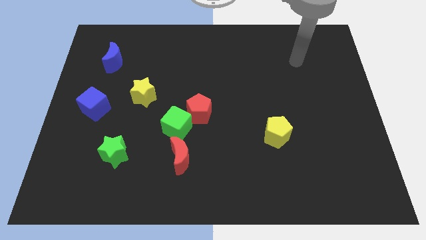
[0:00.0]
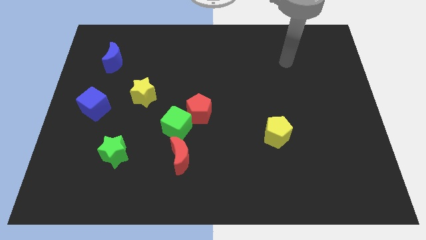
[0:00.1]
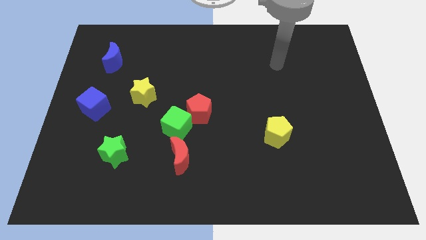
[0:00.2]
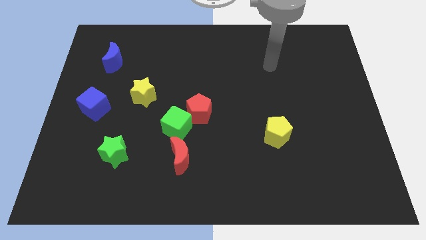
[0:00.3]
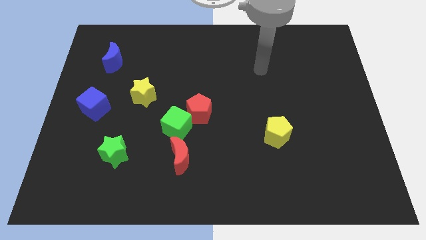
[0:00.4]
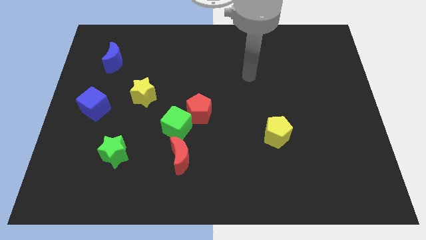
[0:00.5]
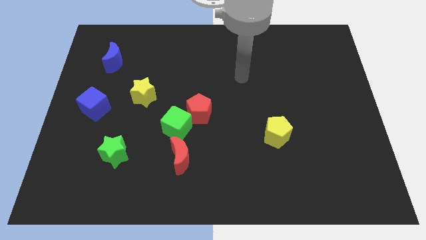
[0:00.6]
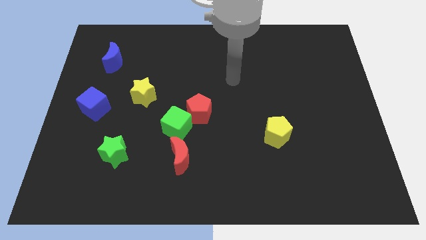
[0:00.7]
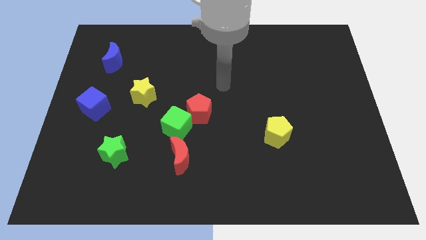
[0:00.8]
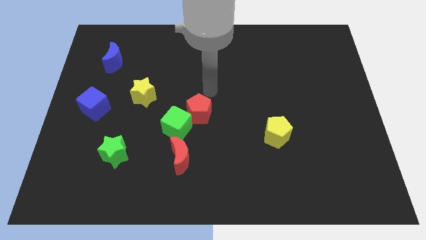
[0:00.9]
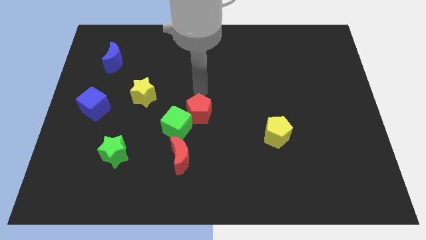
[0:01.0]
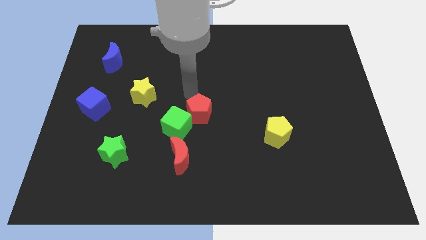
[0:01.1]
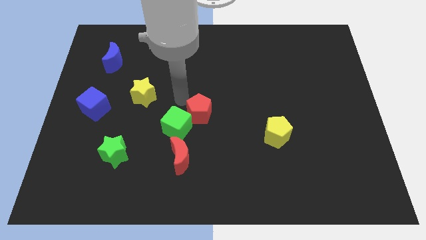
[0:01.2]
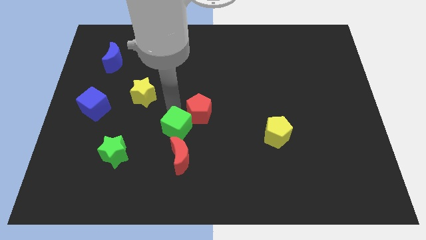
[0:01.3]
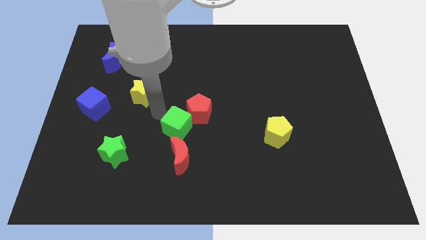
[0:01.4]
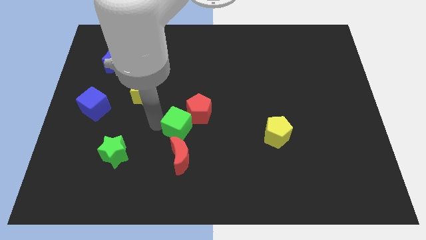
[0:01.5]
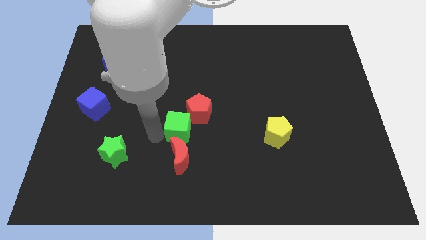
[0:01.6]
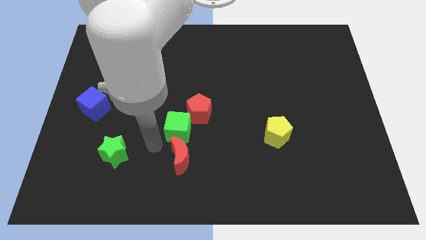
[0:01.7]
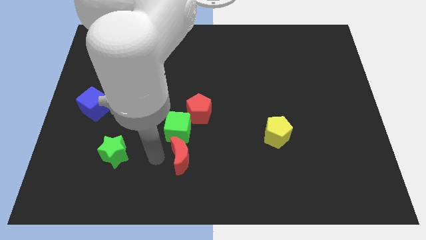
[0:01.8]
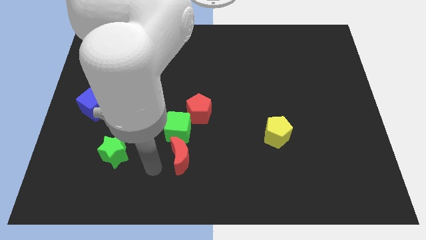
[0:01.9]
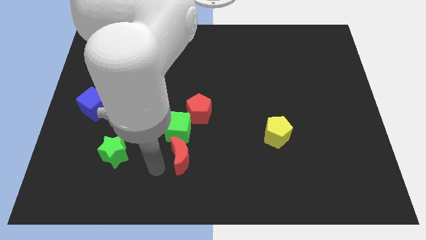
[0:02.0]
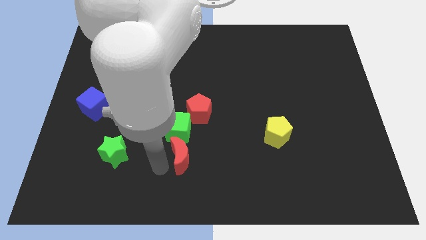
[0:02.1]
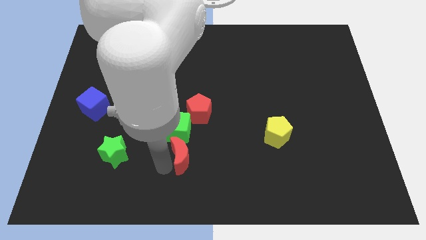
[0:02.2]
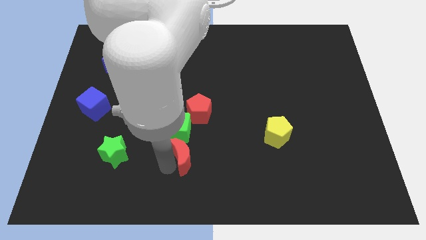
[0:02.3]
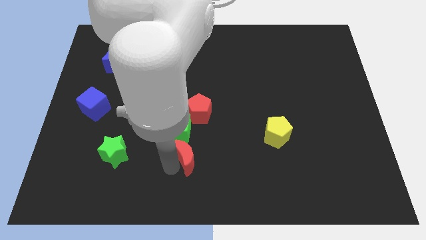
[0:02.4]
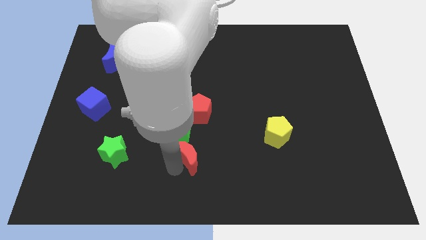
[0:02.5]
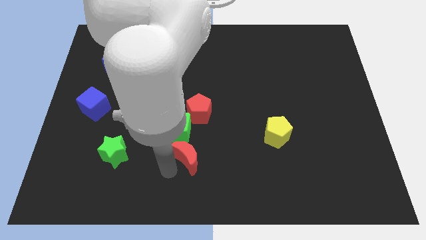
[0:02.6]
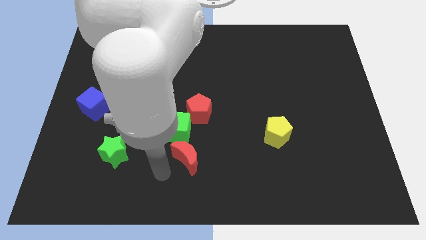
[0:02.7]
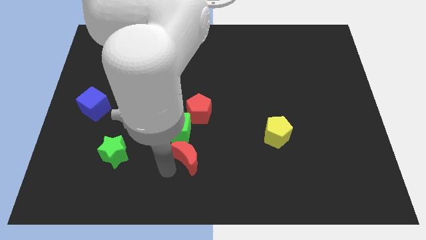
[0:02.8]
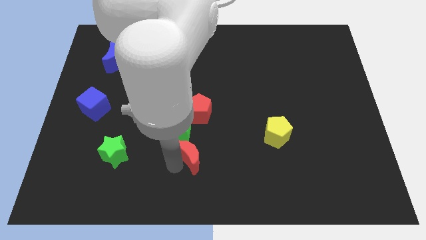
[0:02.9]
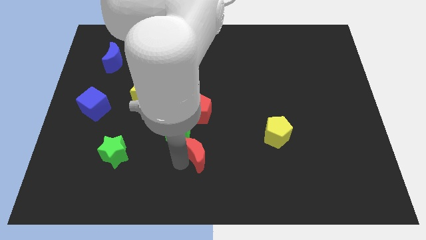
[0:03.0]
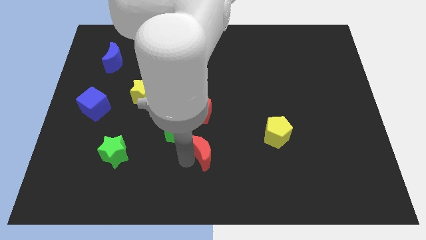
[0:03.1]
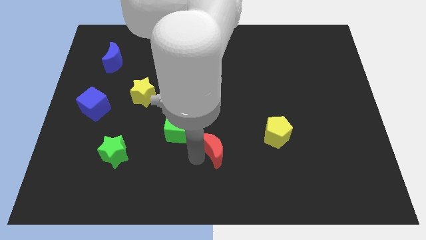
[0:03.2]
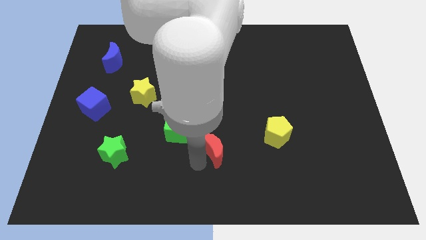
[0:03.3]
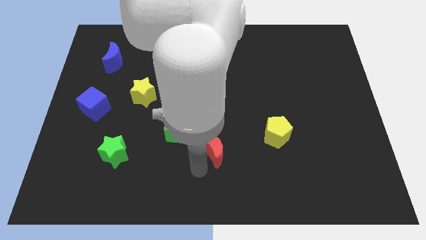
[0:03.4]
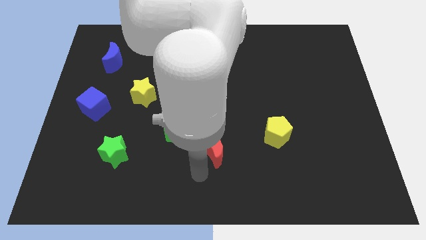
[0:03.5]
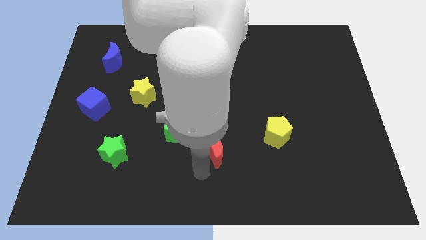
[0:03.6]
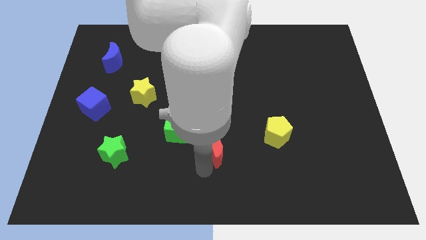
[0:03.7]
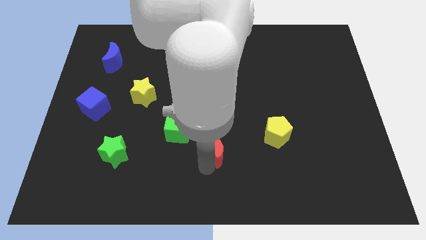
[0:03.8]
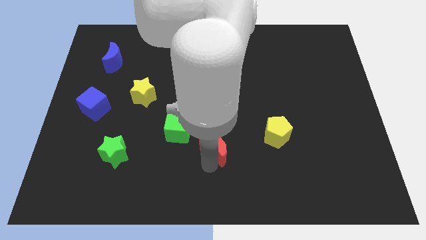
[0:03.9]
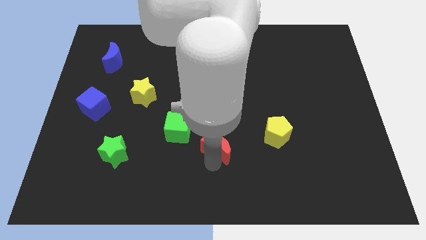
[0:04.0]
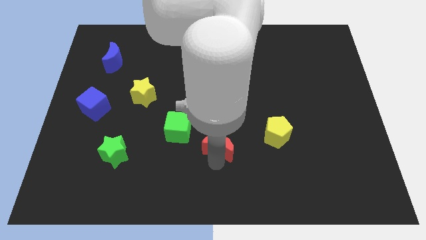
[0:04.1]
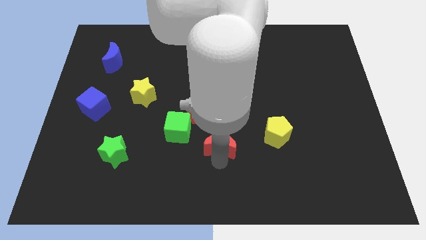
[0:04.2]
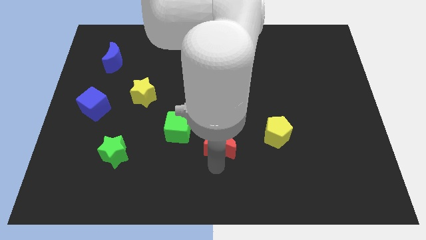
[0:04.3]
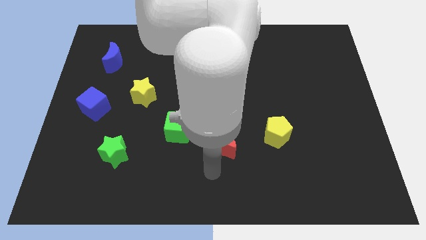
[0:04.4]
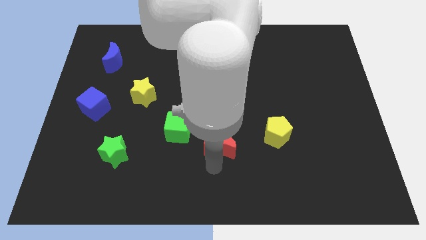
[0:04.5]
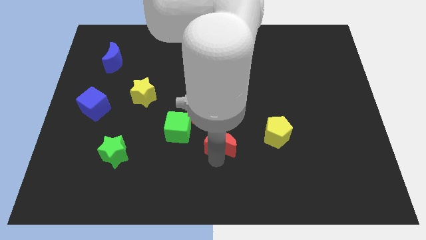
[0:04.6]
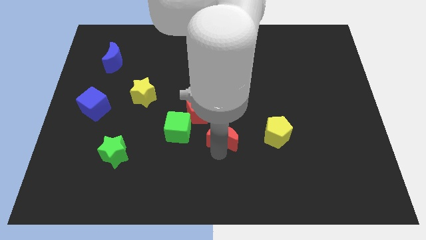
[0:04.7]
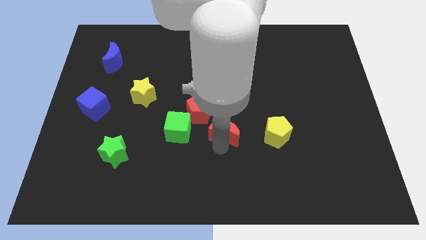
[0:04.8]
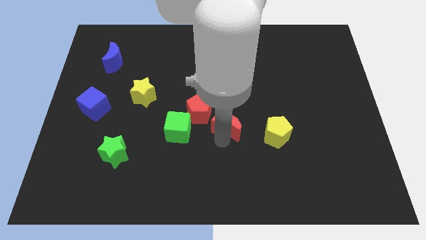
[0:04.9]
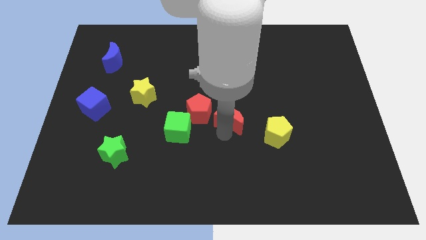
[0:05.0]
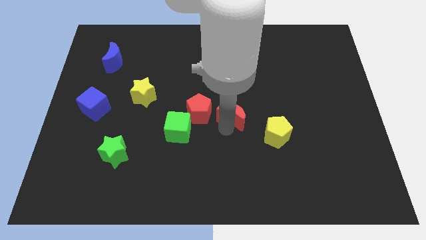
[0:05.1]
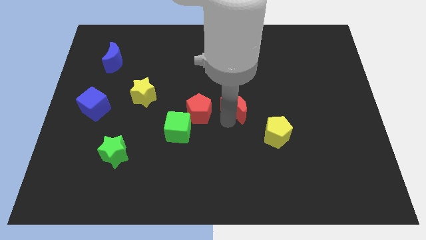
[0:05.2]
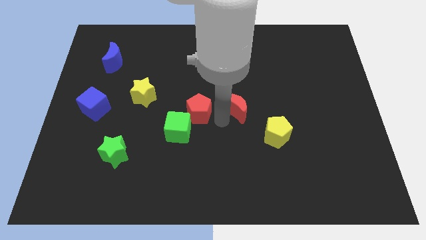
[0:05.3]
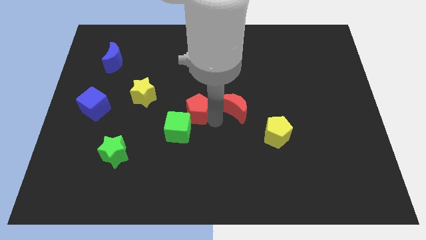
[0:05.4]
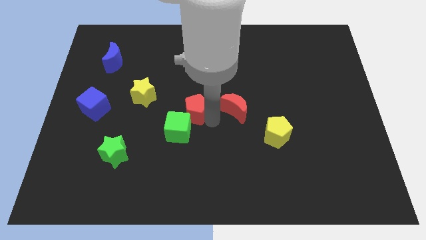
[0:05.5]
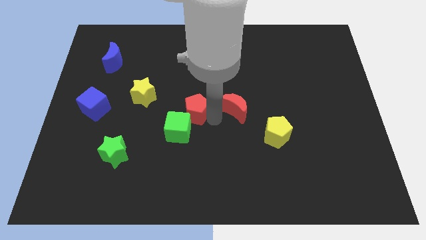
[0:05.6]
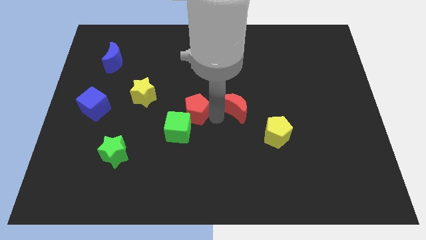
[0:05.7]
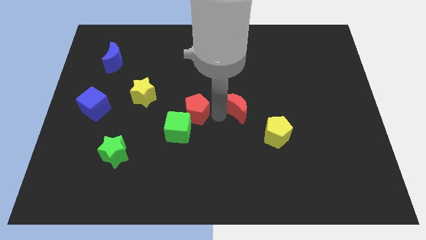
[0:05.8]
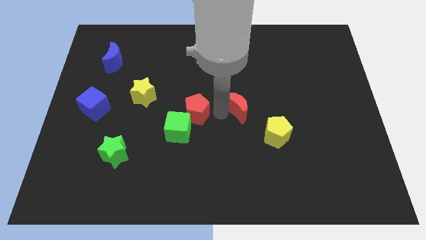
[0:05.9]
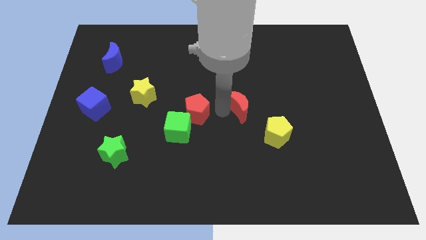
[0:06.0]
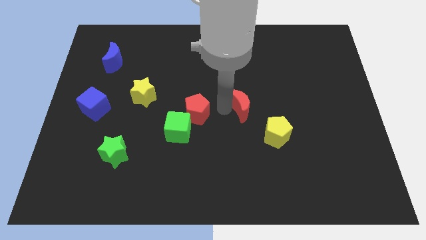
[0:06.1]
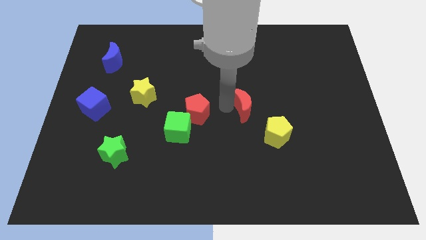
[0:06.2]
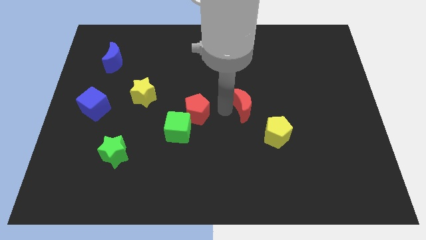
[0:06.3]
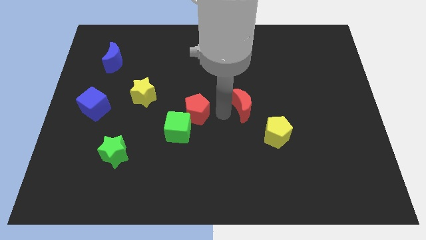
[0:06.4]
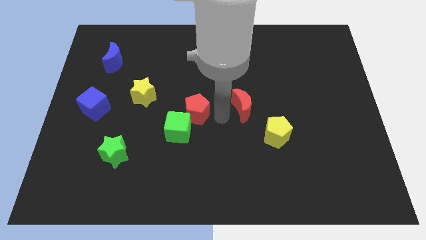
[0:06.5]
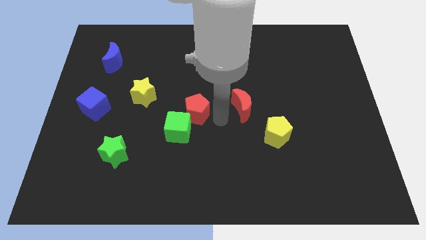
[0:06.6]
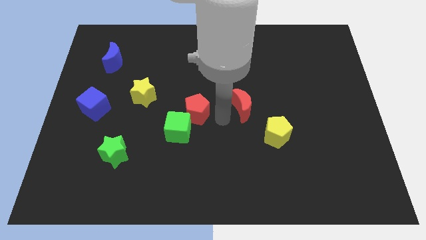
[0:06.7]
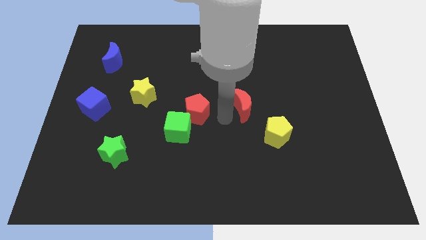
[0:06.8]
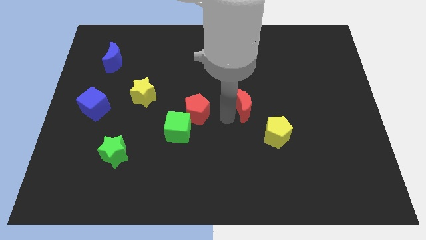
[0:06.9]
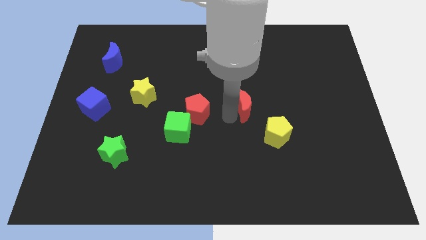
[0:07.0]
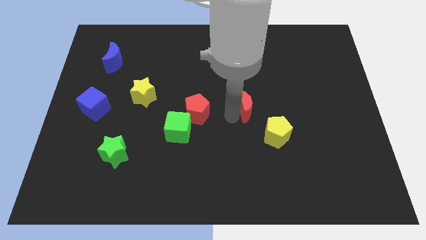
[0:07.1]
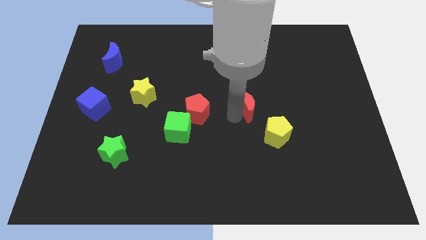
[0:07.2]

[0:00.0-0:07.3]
move the red moon up and right diagonally

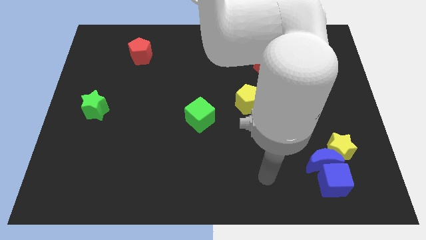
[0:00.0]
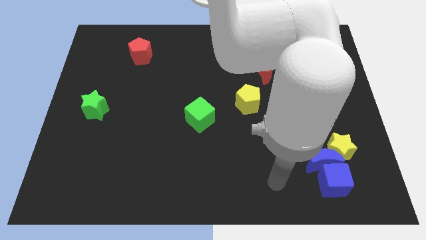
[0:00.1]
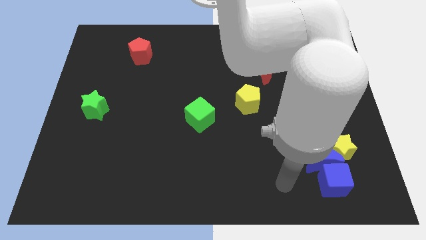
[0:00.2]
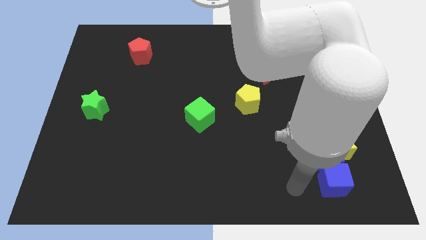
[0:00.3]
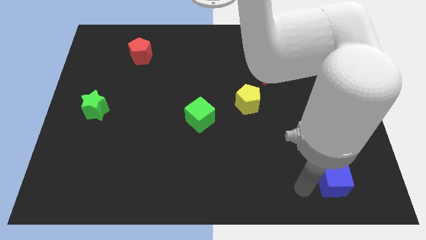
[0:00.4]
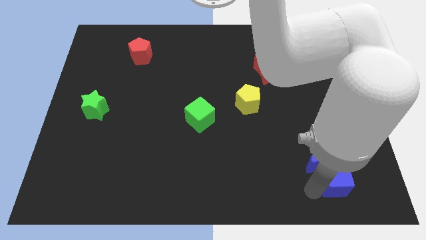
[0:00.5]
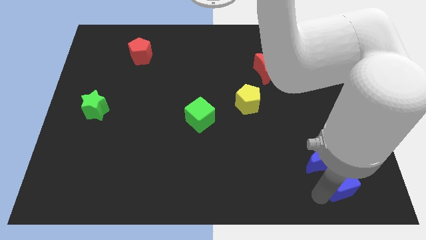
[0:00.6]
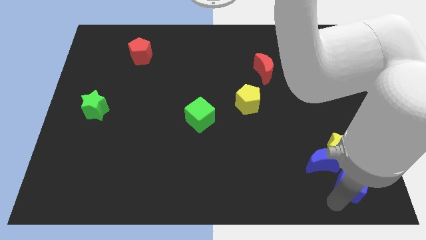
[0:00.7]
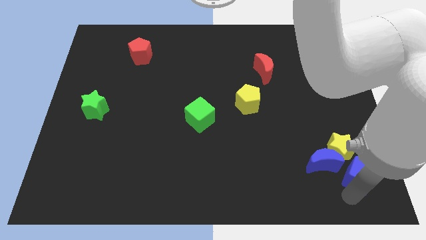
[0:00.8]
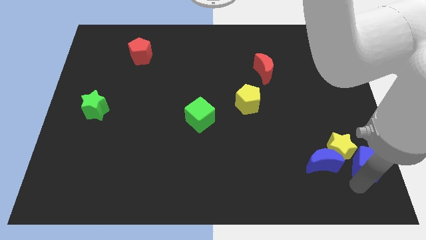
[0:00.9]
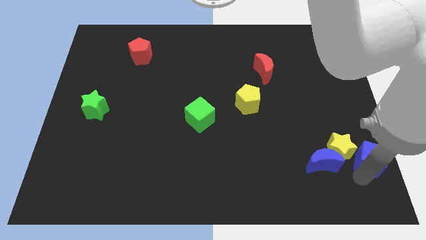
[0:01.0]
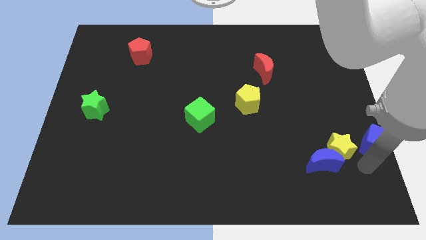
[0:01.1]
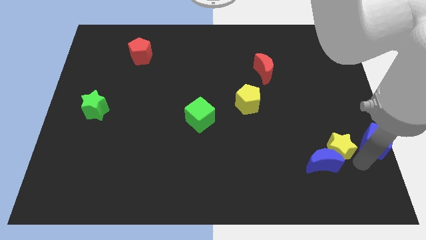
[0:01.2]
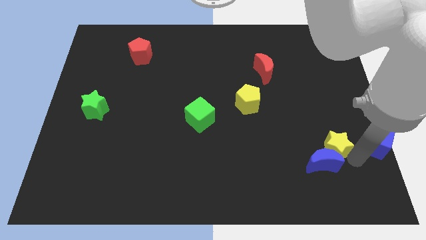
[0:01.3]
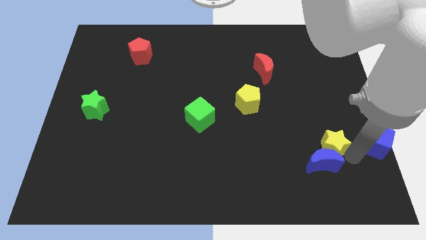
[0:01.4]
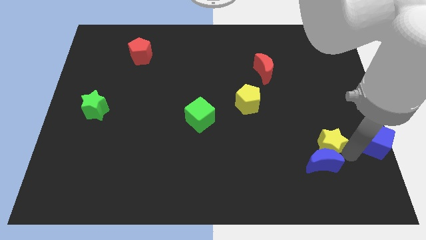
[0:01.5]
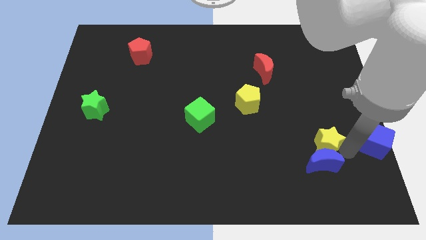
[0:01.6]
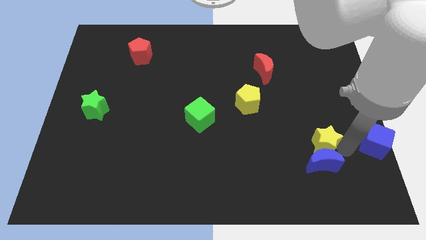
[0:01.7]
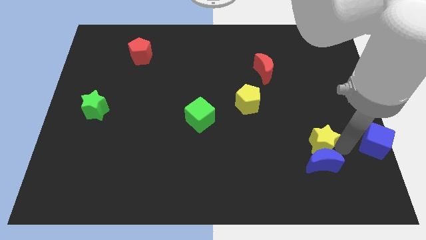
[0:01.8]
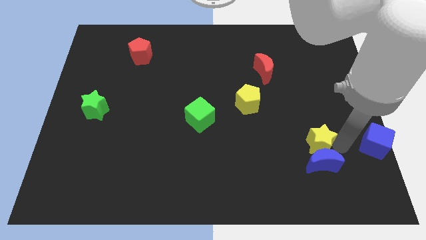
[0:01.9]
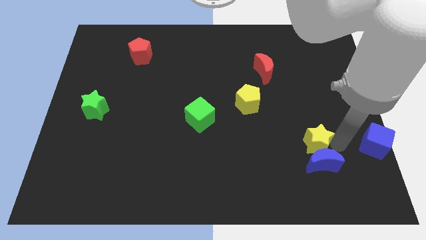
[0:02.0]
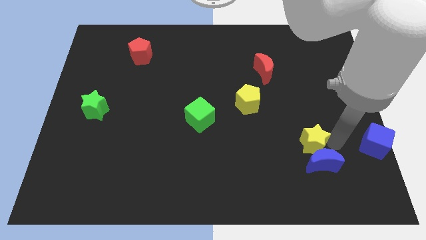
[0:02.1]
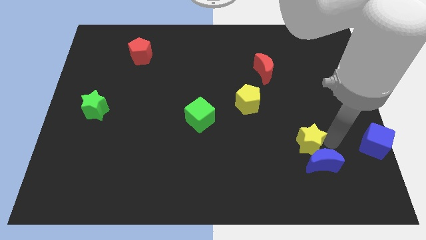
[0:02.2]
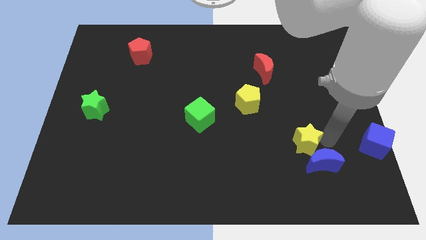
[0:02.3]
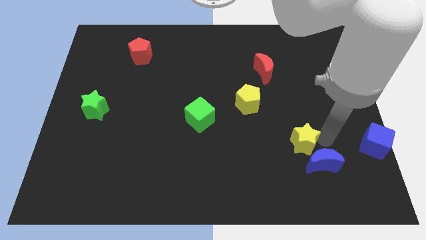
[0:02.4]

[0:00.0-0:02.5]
push the yellow star a bit left
